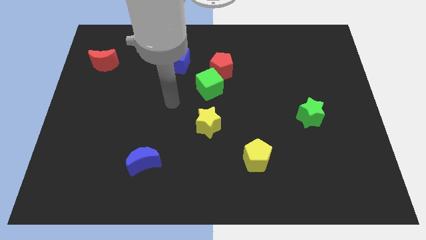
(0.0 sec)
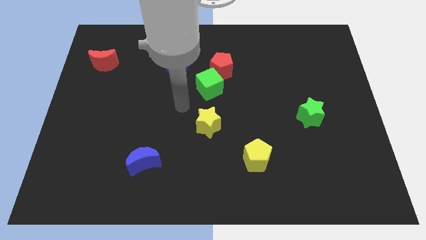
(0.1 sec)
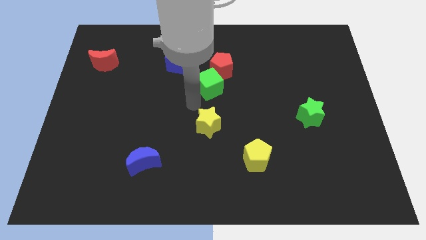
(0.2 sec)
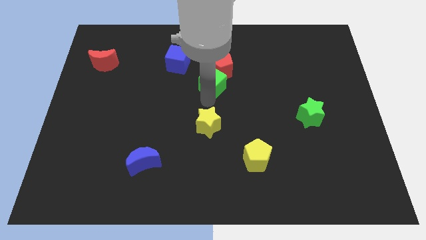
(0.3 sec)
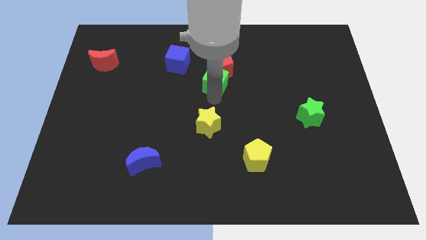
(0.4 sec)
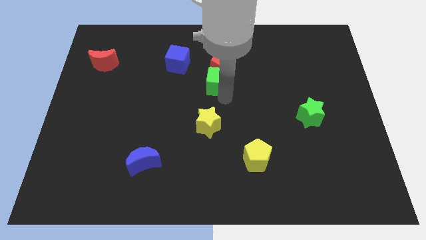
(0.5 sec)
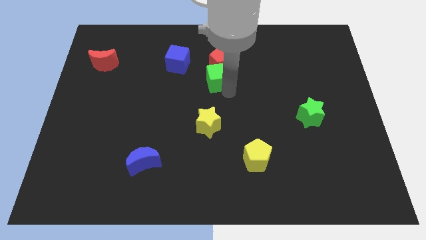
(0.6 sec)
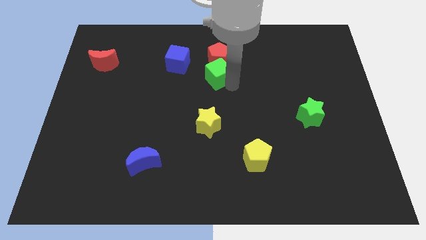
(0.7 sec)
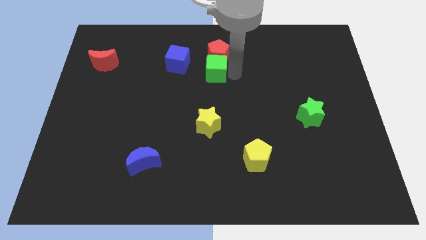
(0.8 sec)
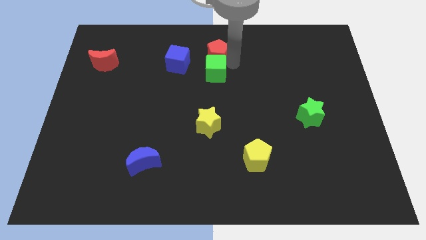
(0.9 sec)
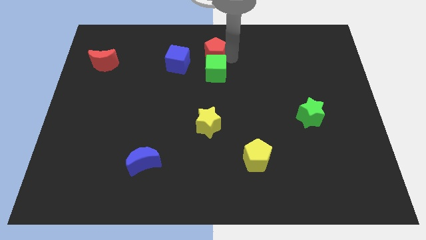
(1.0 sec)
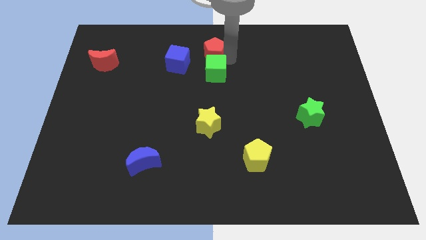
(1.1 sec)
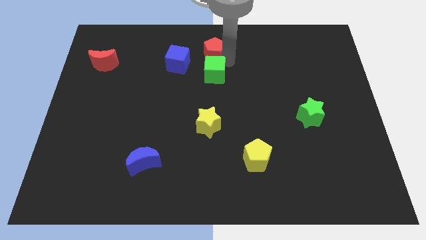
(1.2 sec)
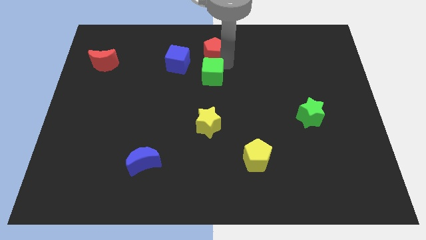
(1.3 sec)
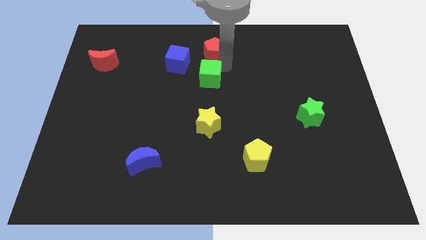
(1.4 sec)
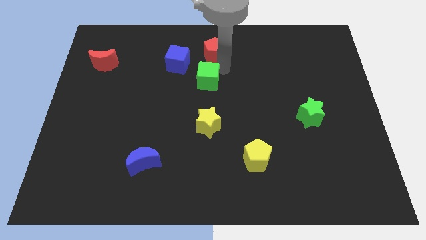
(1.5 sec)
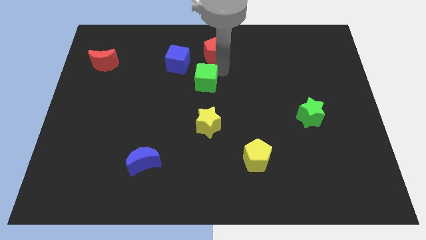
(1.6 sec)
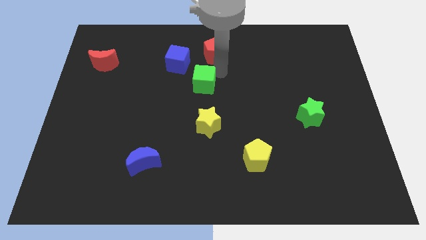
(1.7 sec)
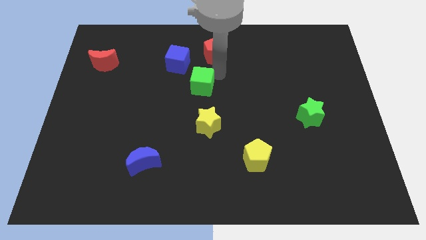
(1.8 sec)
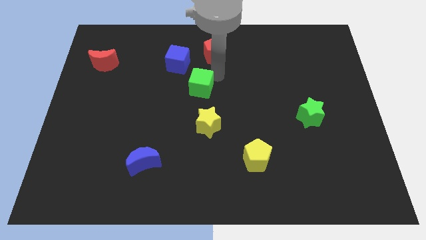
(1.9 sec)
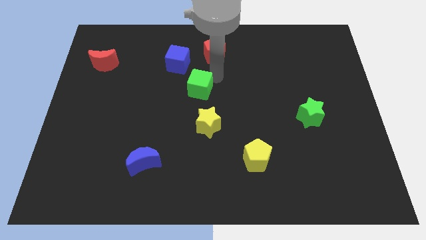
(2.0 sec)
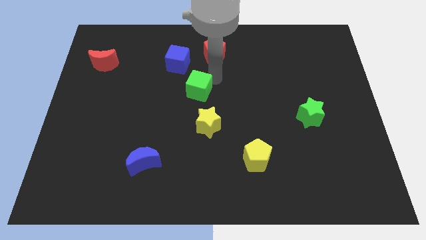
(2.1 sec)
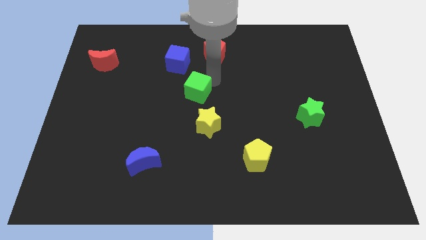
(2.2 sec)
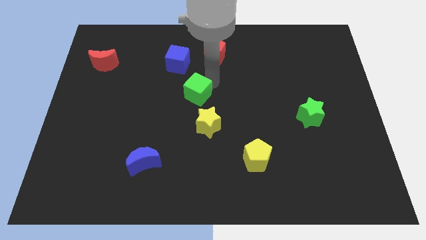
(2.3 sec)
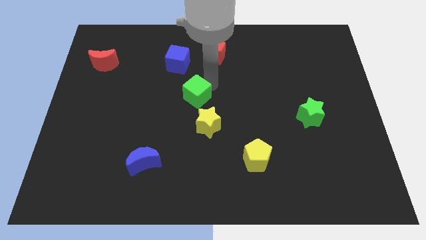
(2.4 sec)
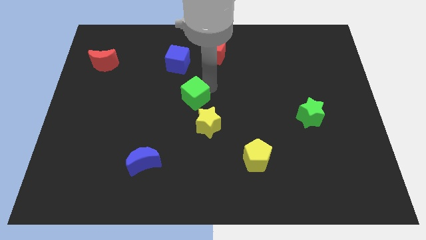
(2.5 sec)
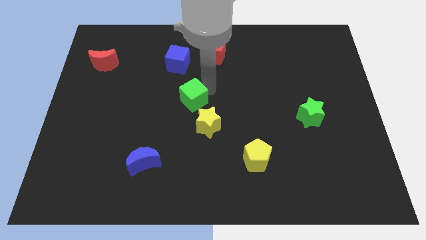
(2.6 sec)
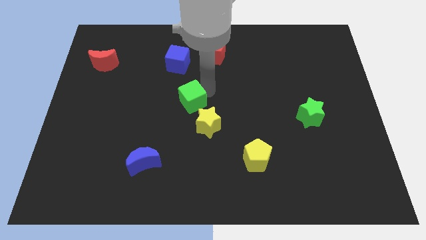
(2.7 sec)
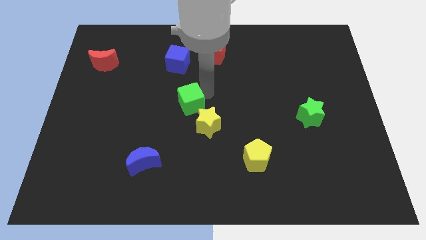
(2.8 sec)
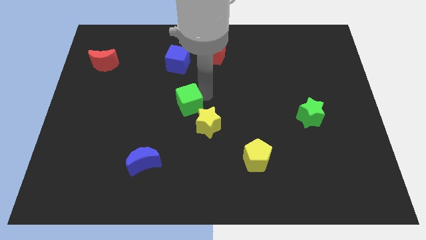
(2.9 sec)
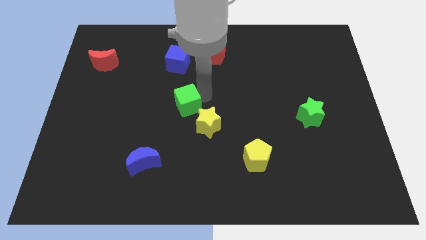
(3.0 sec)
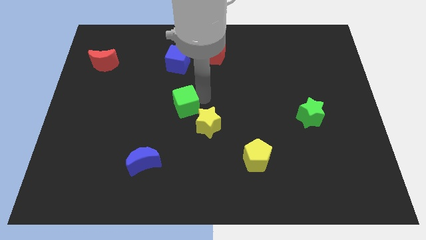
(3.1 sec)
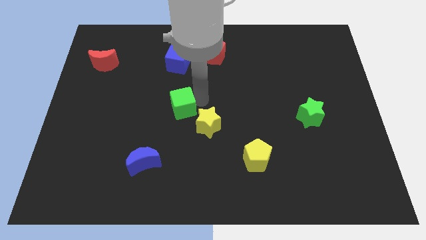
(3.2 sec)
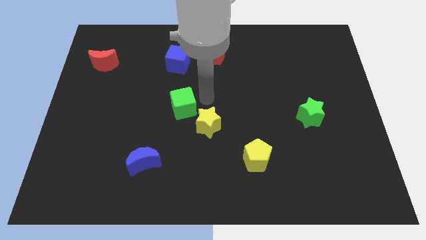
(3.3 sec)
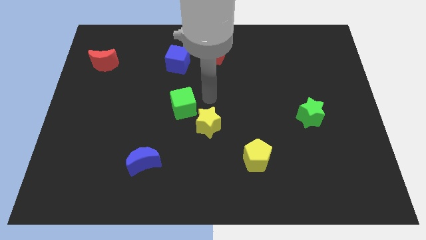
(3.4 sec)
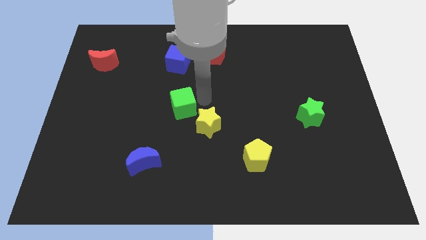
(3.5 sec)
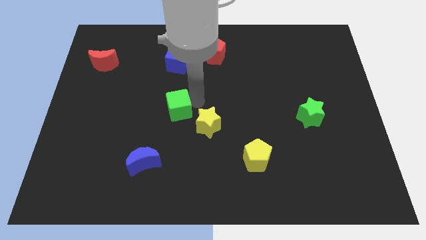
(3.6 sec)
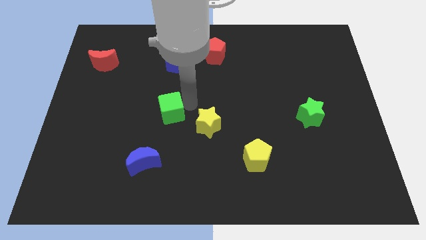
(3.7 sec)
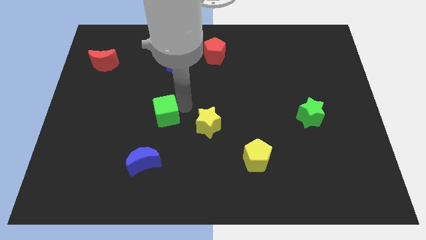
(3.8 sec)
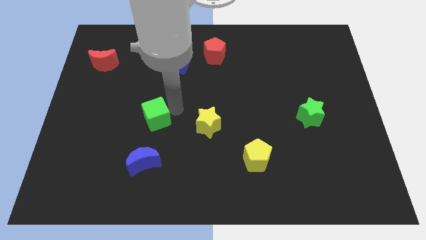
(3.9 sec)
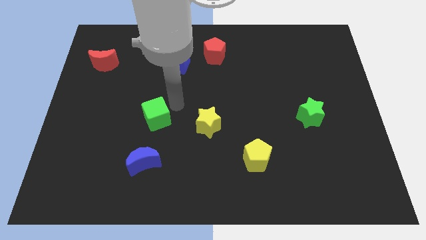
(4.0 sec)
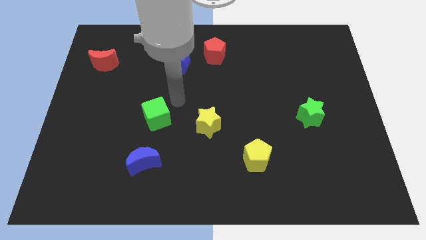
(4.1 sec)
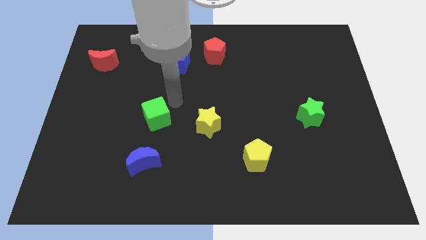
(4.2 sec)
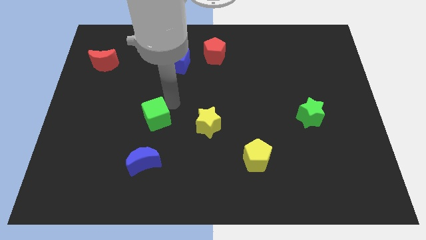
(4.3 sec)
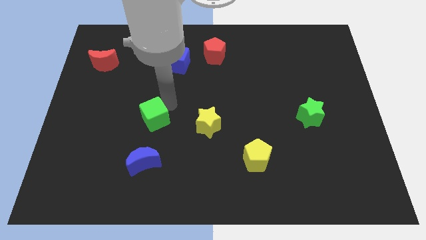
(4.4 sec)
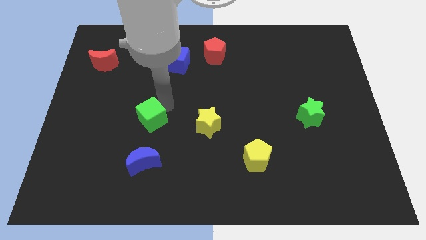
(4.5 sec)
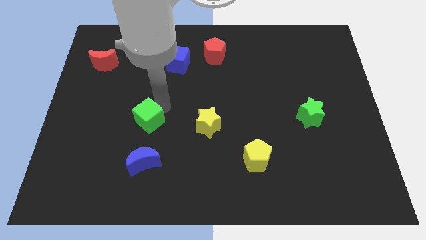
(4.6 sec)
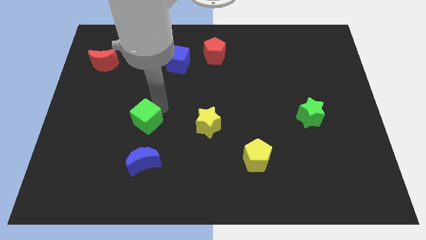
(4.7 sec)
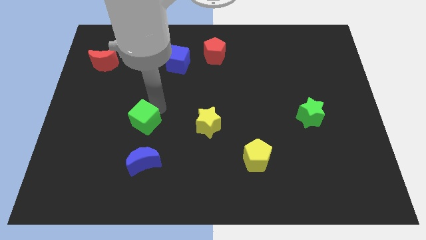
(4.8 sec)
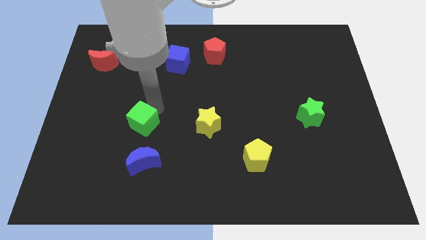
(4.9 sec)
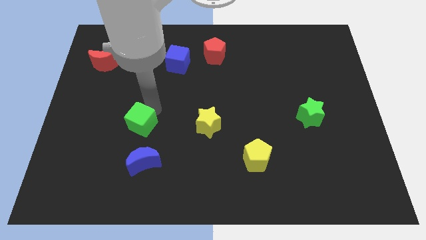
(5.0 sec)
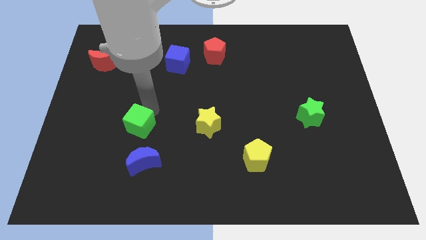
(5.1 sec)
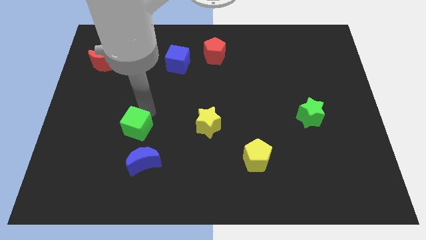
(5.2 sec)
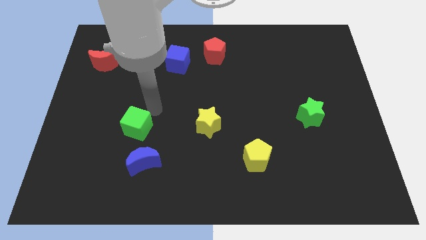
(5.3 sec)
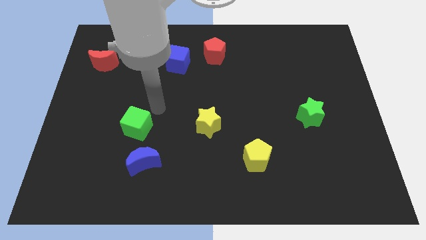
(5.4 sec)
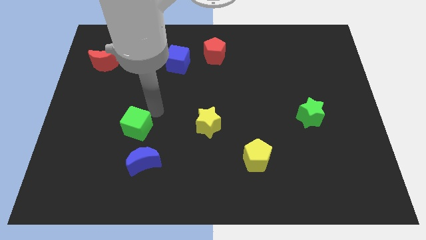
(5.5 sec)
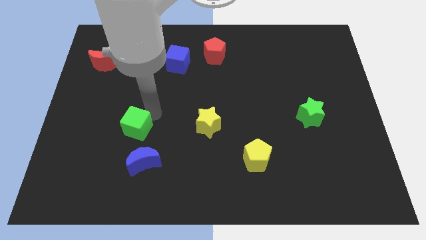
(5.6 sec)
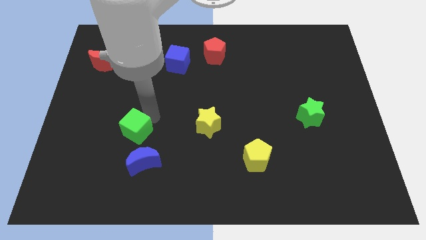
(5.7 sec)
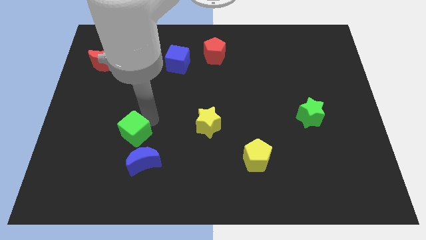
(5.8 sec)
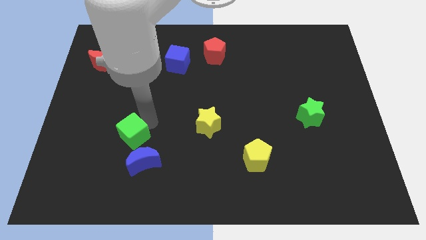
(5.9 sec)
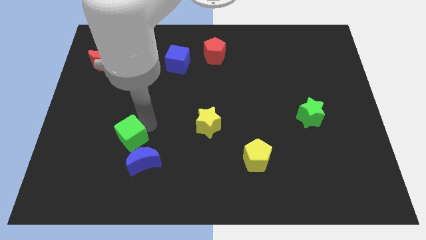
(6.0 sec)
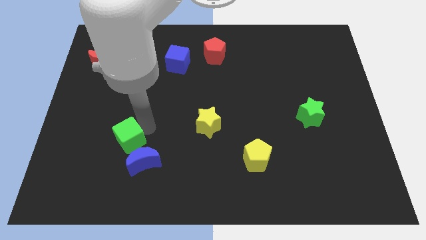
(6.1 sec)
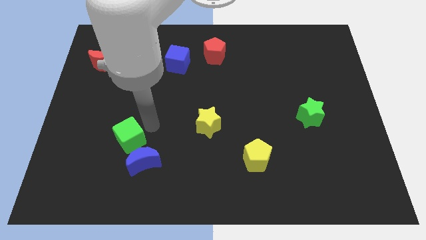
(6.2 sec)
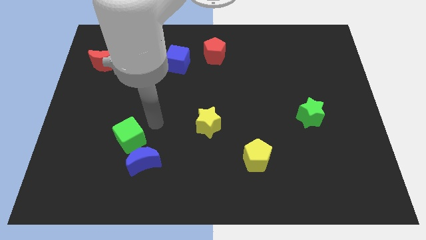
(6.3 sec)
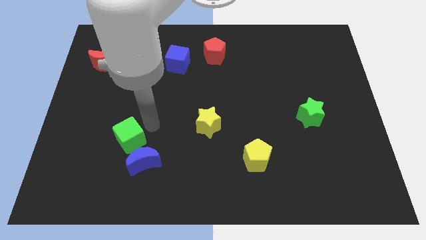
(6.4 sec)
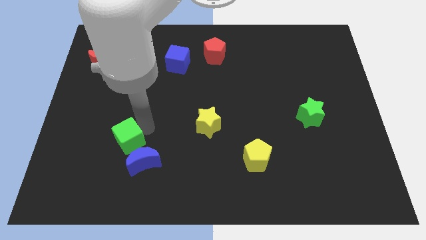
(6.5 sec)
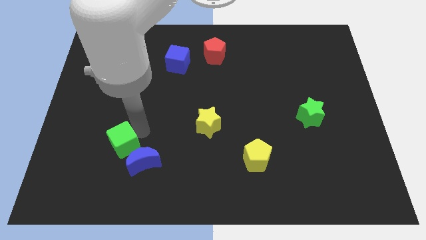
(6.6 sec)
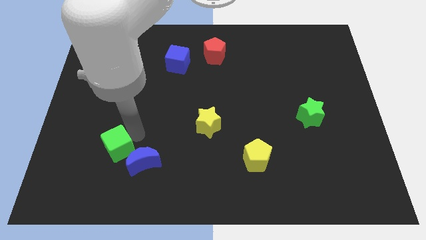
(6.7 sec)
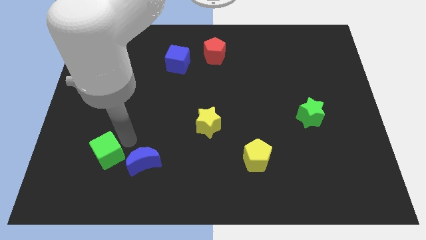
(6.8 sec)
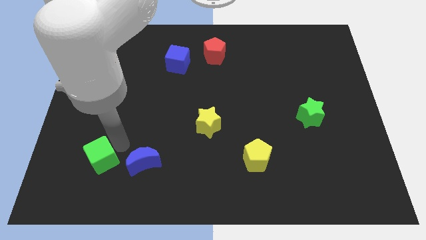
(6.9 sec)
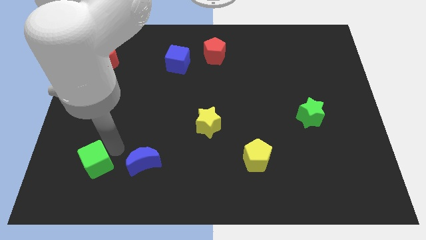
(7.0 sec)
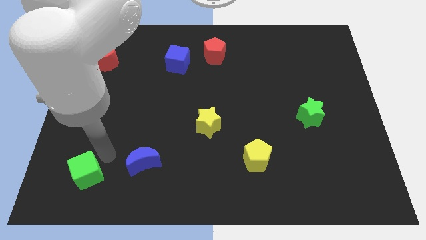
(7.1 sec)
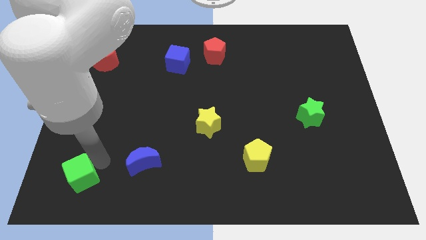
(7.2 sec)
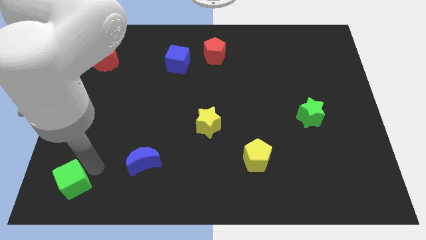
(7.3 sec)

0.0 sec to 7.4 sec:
move the green cube to the bottom left corner

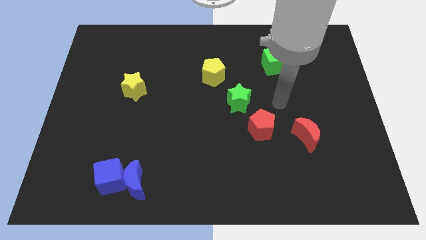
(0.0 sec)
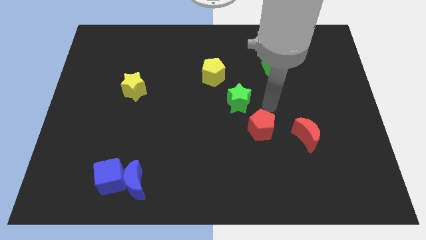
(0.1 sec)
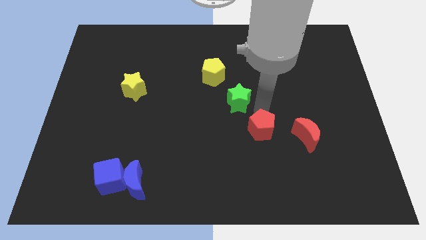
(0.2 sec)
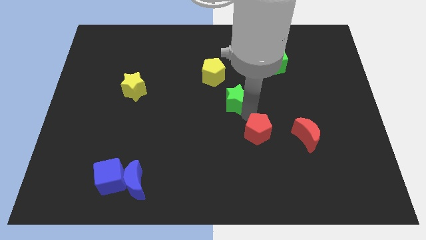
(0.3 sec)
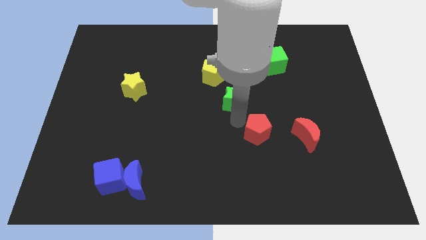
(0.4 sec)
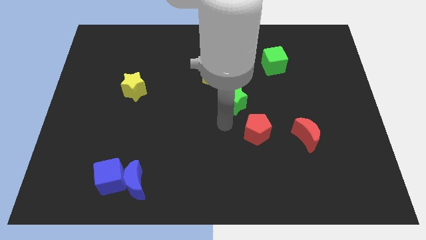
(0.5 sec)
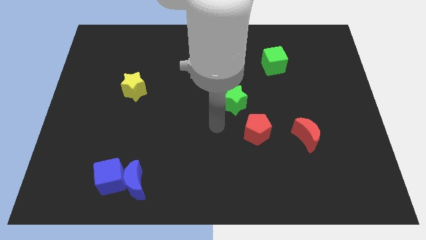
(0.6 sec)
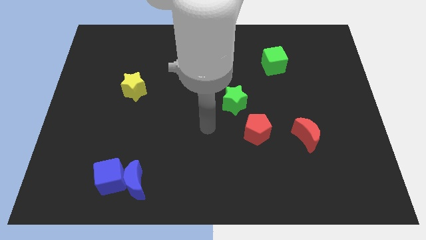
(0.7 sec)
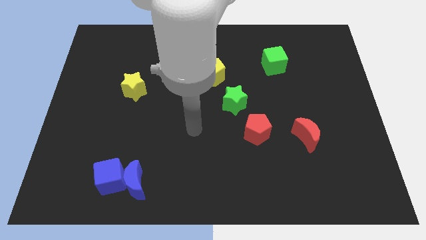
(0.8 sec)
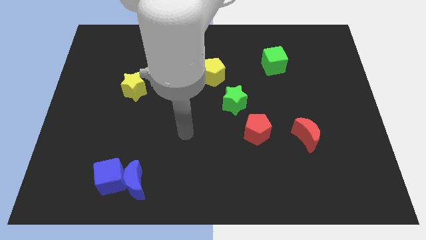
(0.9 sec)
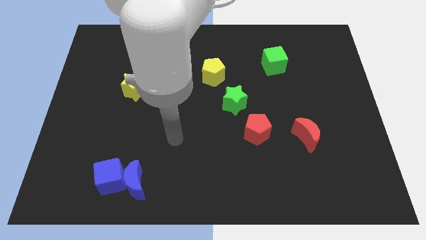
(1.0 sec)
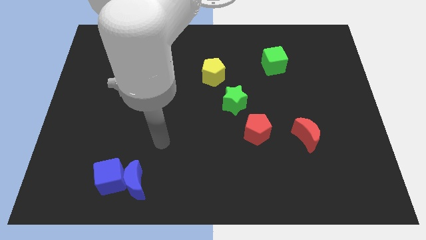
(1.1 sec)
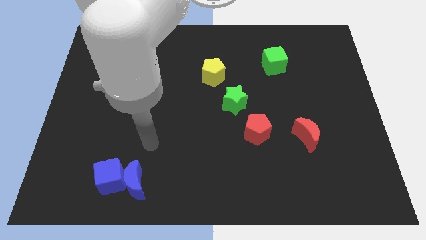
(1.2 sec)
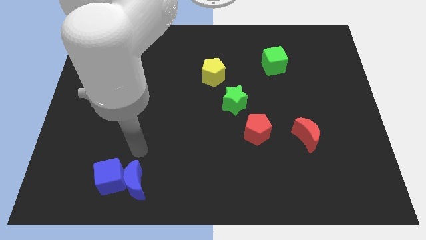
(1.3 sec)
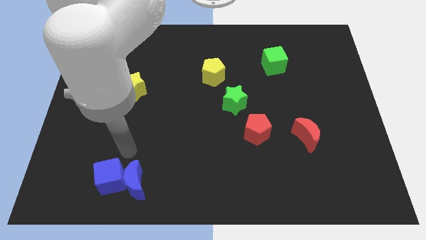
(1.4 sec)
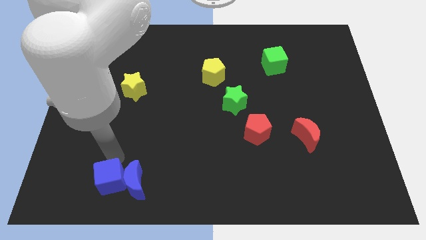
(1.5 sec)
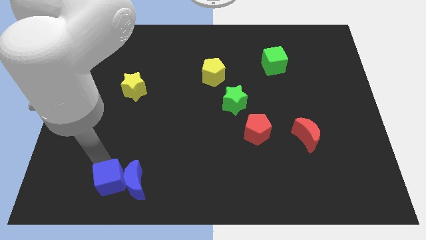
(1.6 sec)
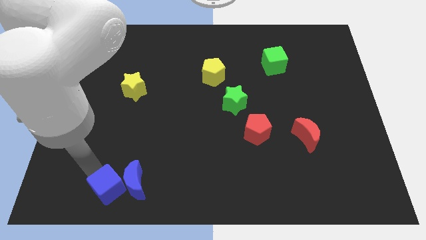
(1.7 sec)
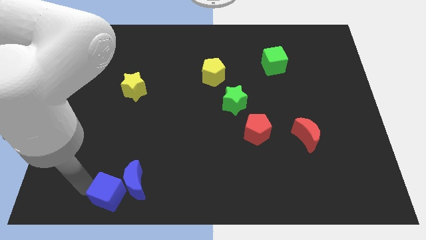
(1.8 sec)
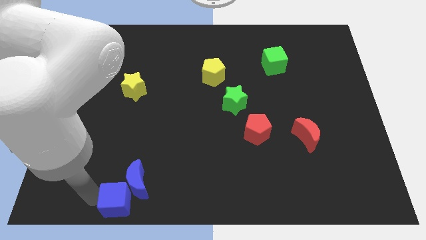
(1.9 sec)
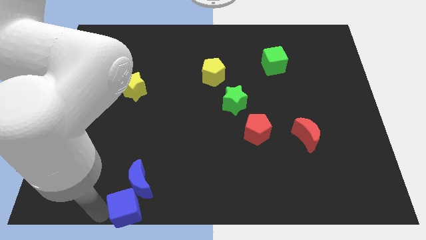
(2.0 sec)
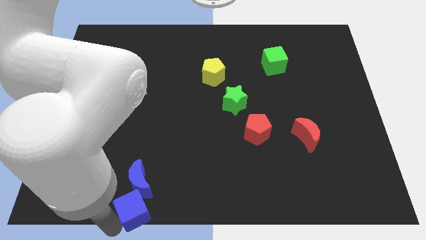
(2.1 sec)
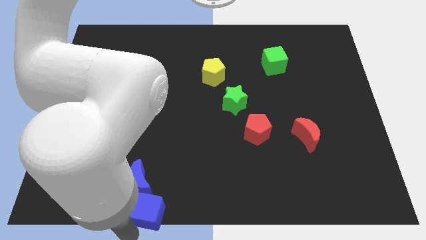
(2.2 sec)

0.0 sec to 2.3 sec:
move the blue cube to the bottom side
